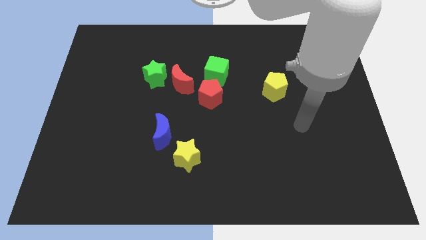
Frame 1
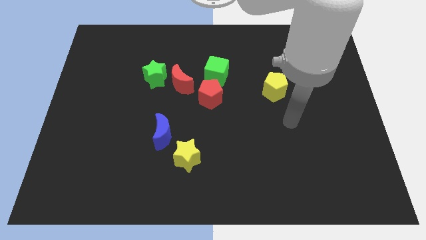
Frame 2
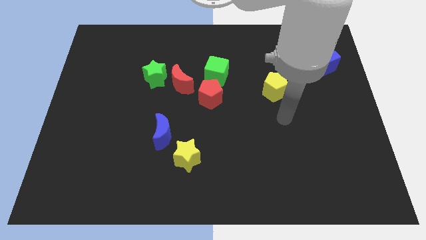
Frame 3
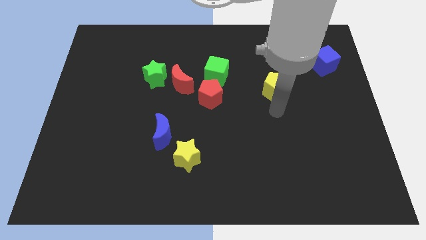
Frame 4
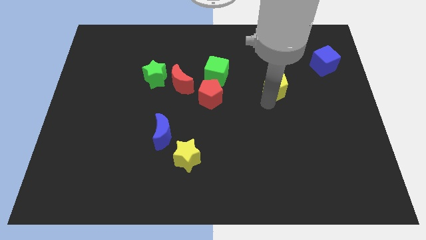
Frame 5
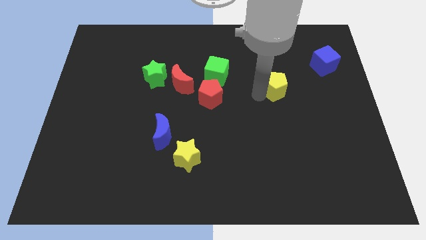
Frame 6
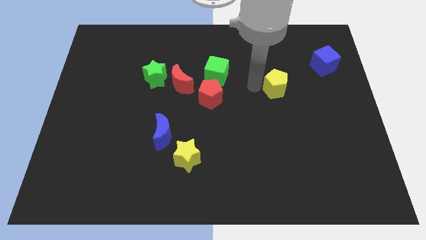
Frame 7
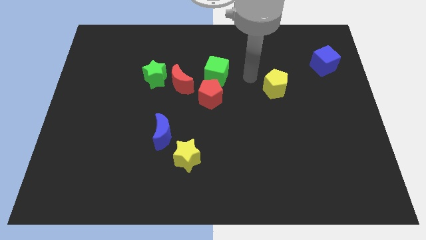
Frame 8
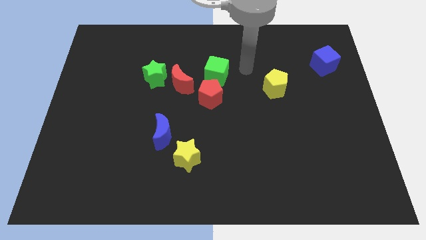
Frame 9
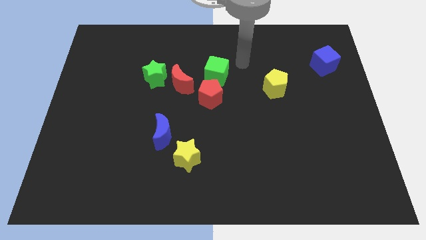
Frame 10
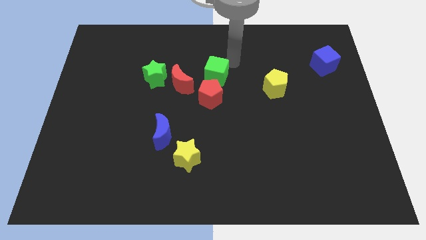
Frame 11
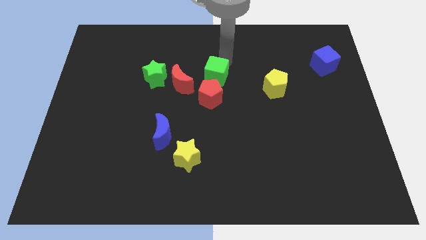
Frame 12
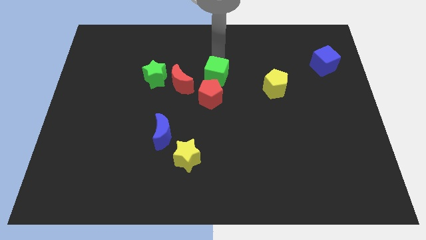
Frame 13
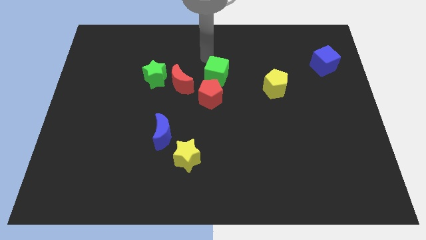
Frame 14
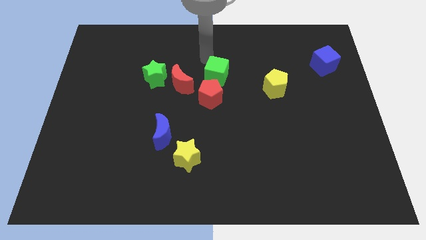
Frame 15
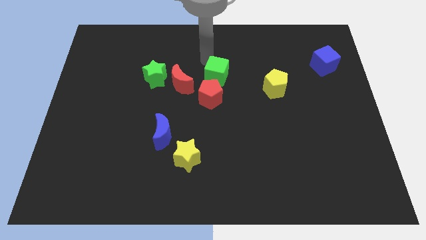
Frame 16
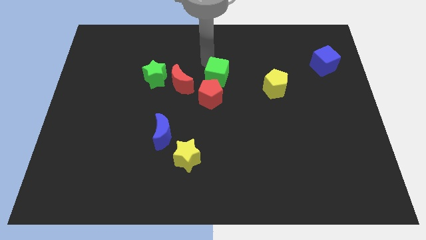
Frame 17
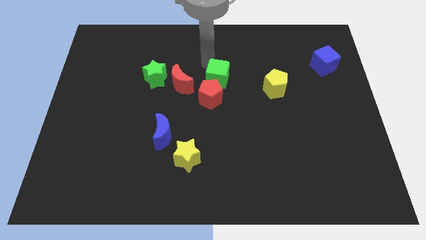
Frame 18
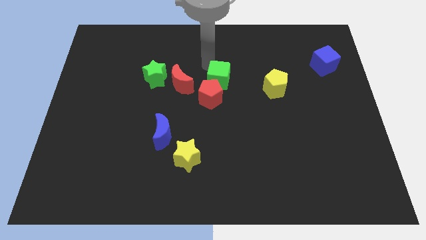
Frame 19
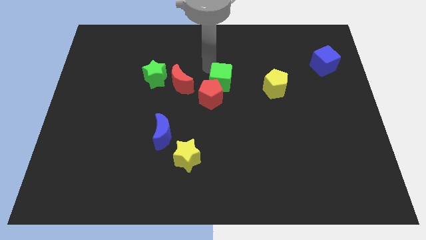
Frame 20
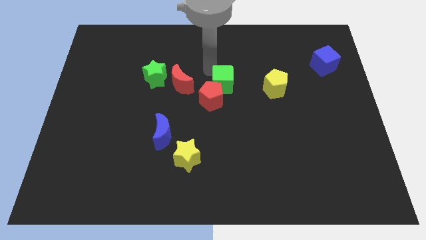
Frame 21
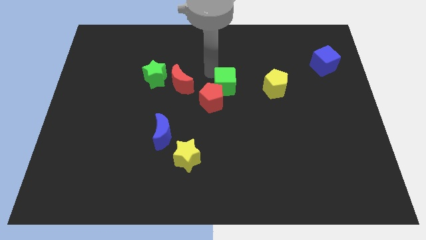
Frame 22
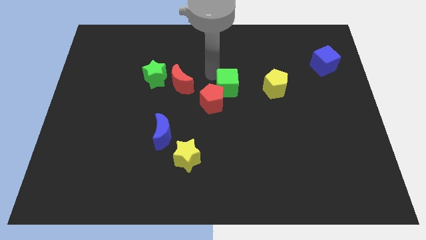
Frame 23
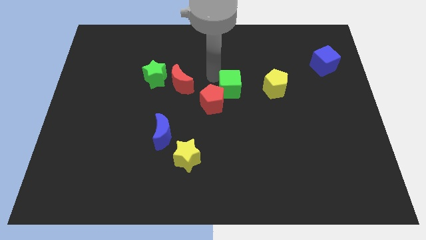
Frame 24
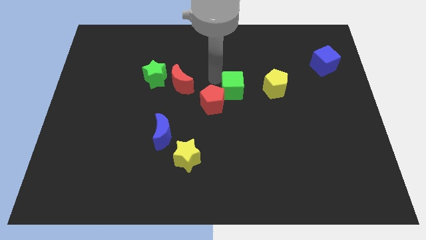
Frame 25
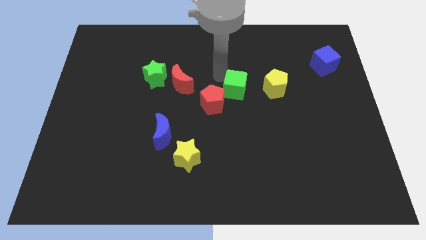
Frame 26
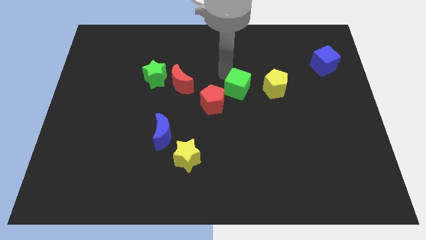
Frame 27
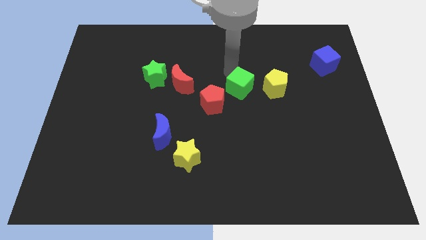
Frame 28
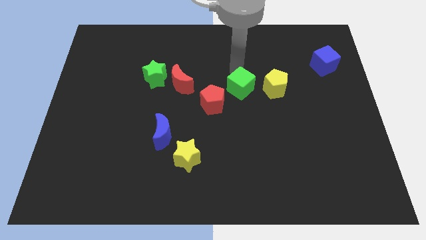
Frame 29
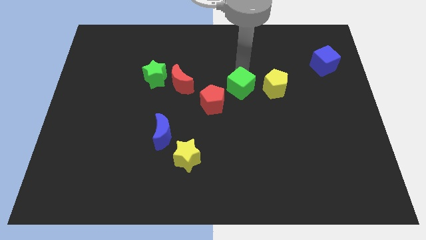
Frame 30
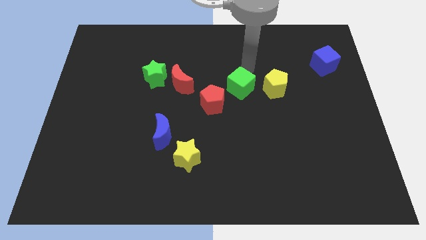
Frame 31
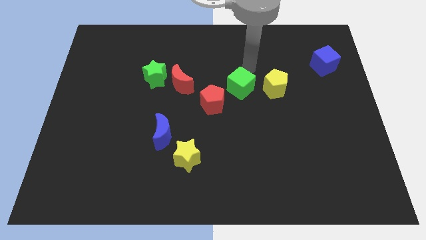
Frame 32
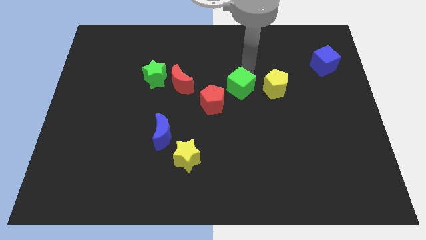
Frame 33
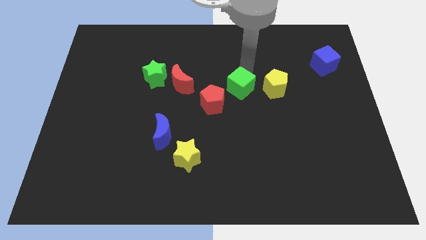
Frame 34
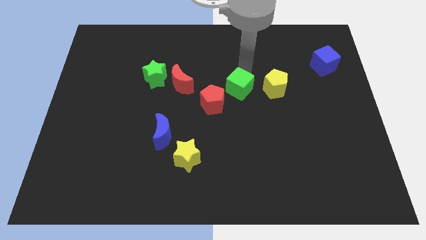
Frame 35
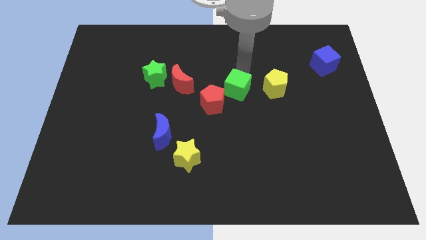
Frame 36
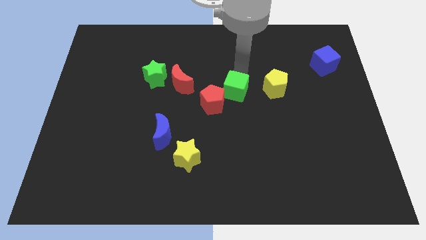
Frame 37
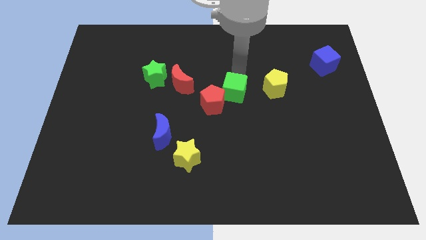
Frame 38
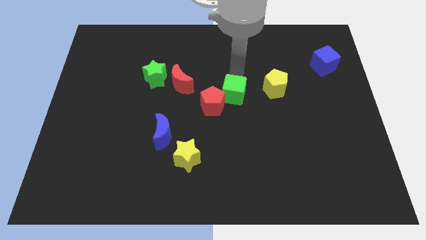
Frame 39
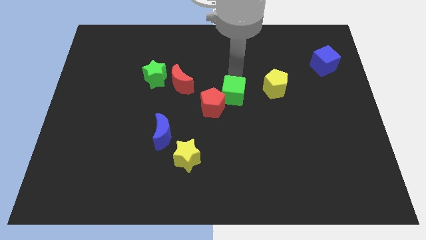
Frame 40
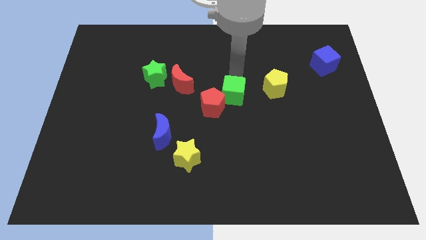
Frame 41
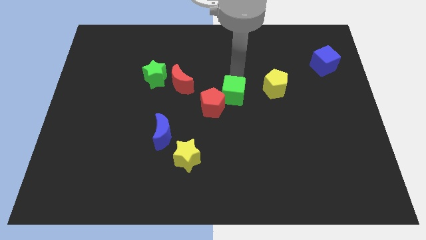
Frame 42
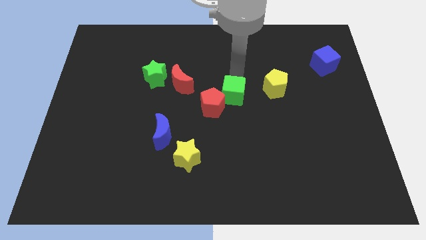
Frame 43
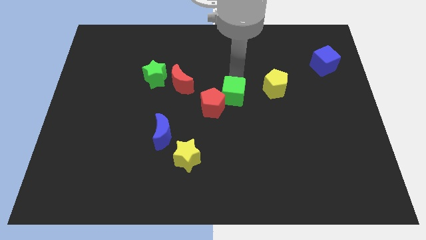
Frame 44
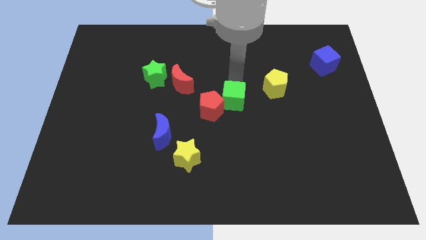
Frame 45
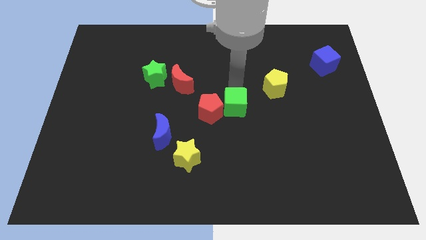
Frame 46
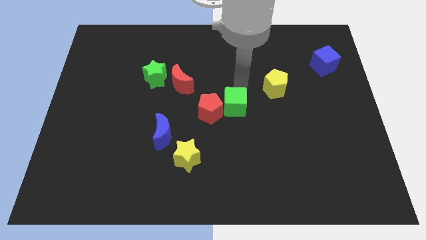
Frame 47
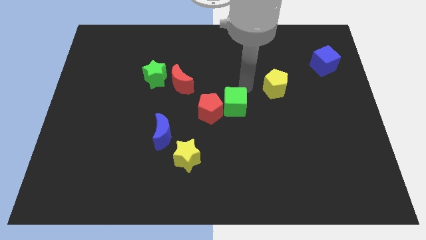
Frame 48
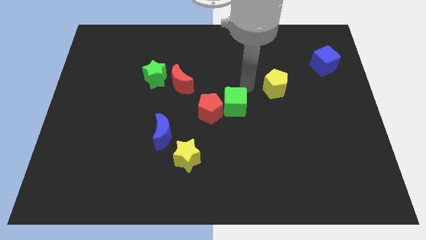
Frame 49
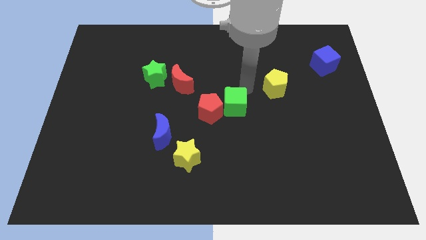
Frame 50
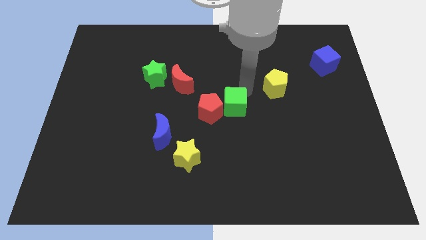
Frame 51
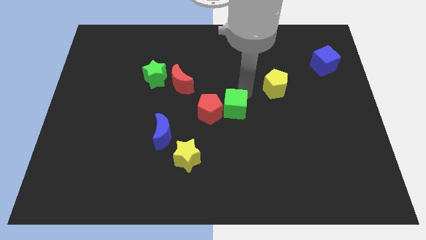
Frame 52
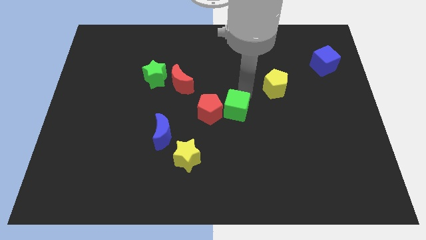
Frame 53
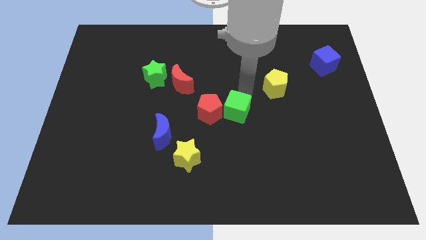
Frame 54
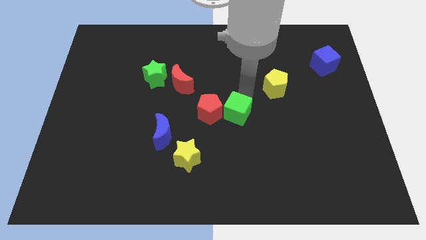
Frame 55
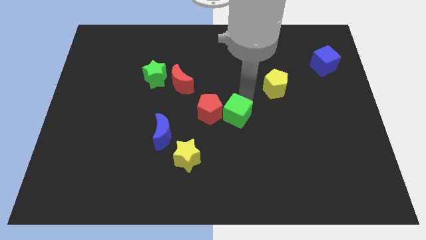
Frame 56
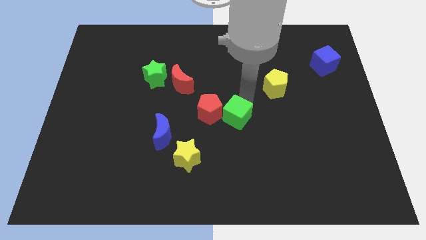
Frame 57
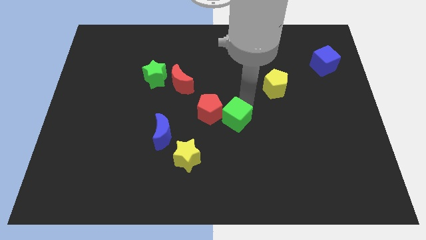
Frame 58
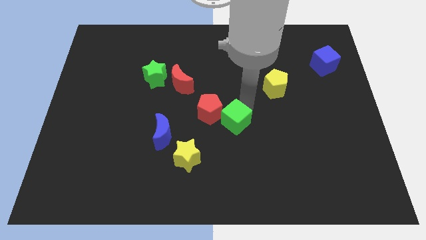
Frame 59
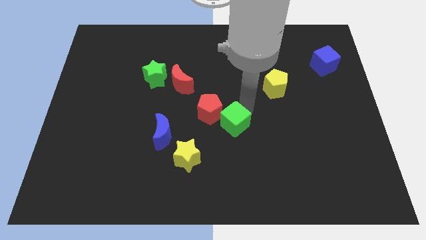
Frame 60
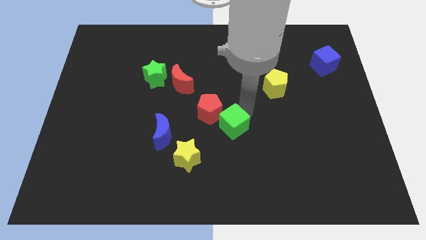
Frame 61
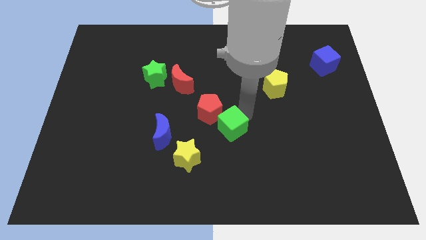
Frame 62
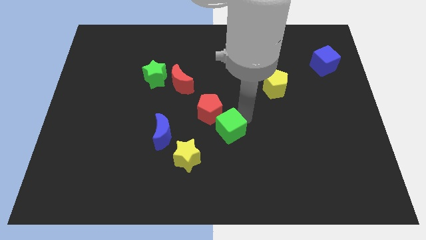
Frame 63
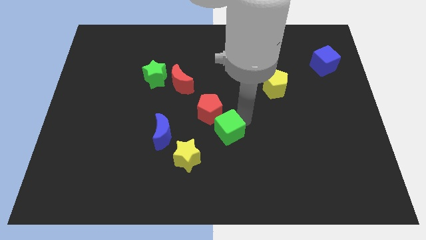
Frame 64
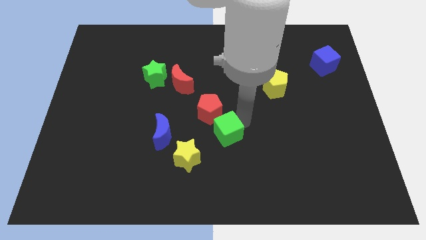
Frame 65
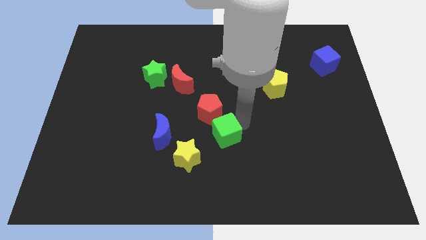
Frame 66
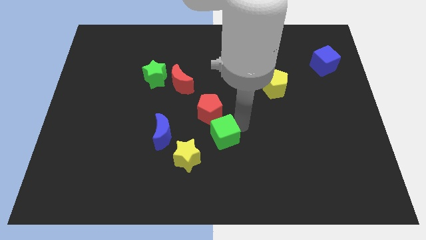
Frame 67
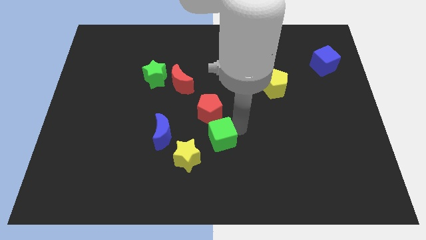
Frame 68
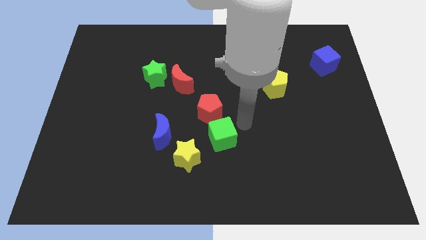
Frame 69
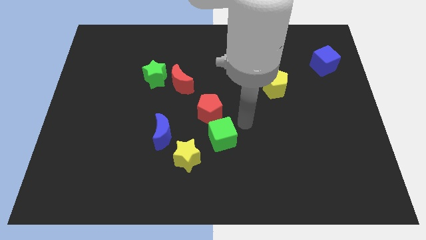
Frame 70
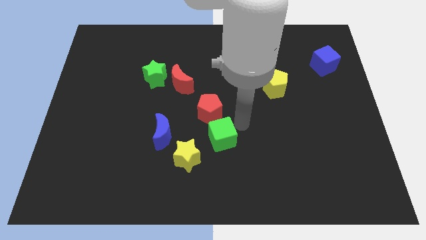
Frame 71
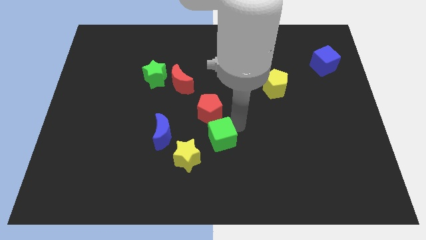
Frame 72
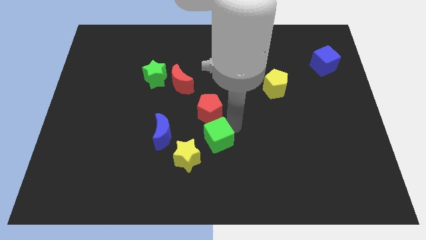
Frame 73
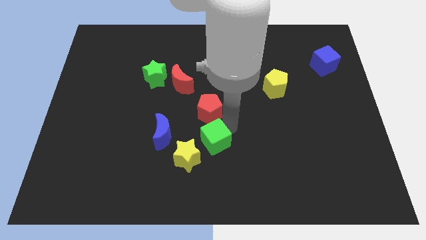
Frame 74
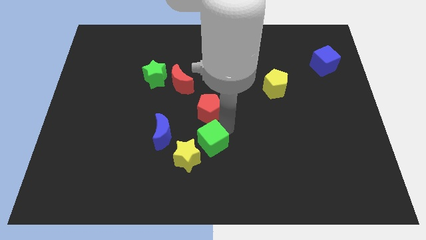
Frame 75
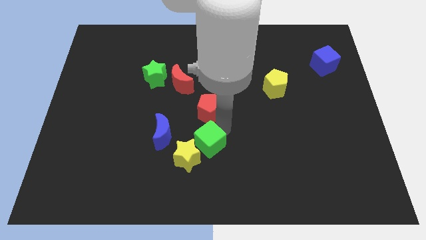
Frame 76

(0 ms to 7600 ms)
move the green cube towards the yellow star
